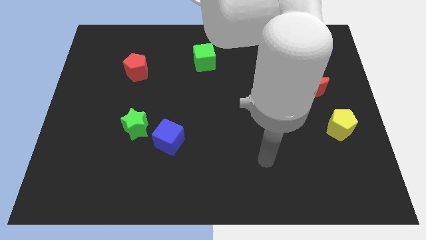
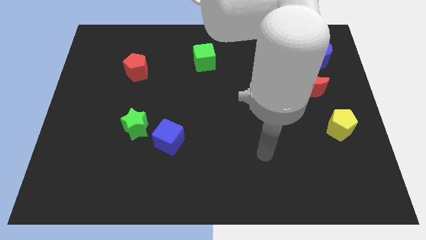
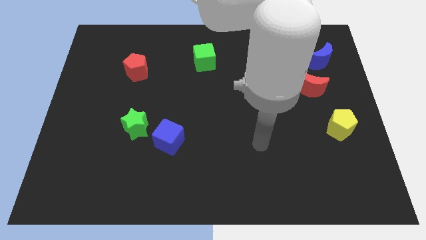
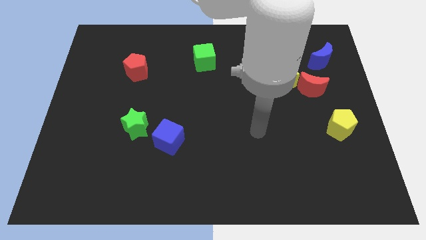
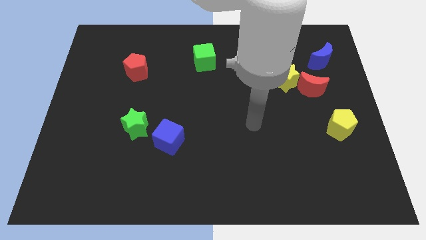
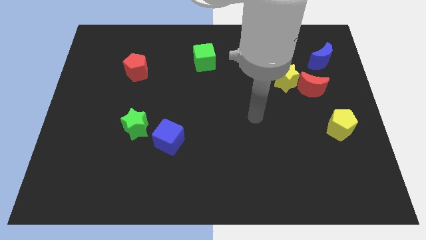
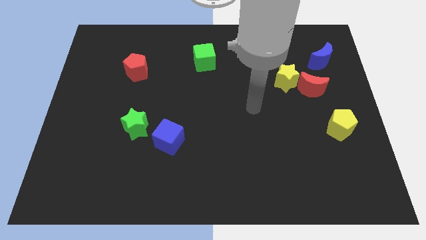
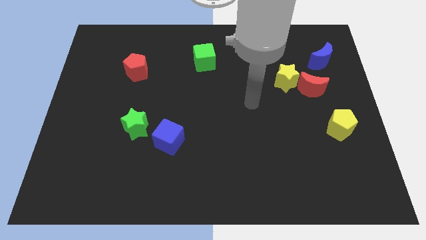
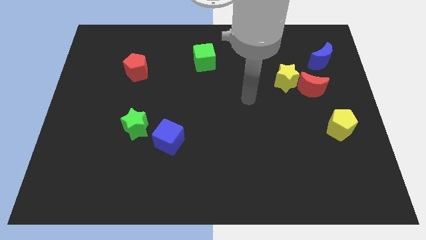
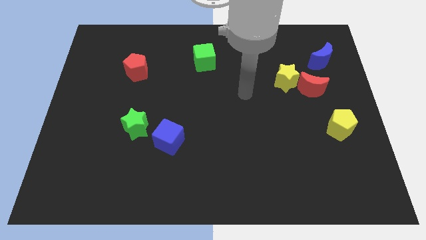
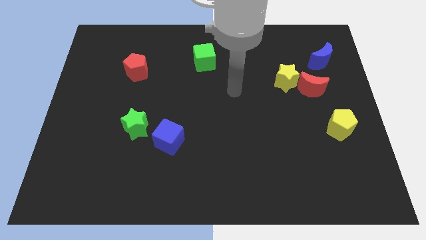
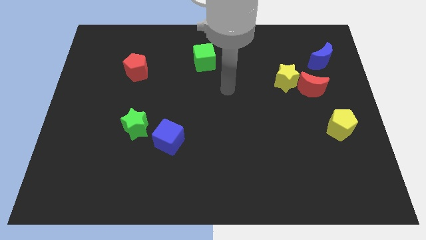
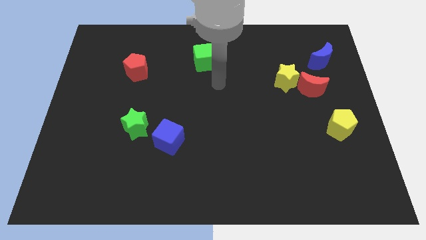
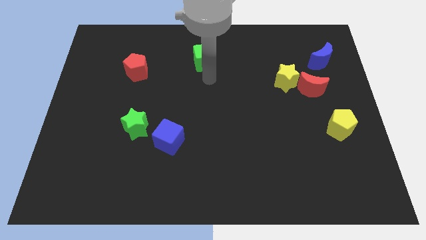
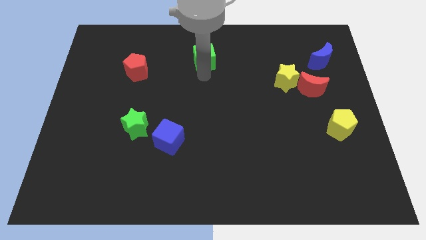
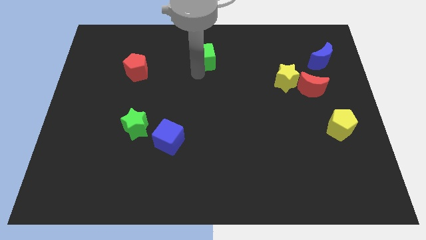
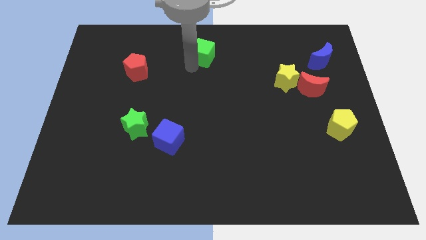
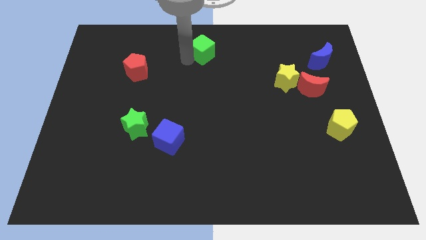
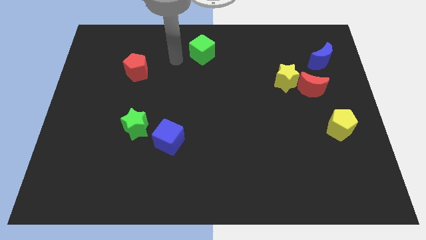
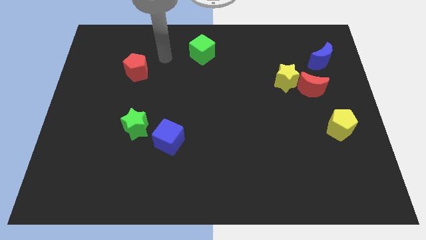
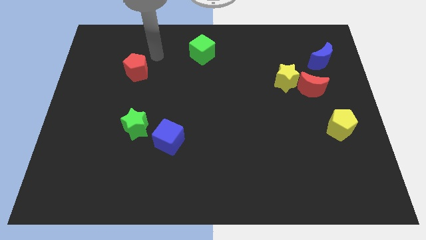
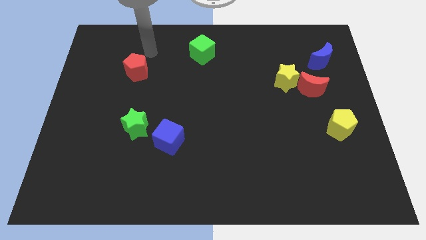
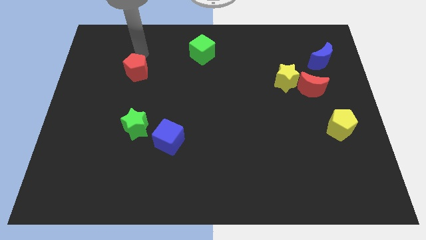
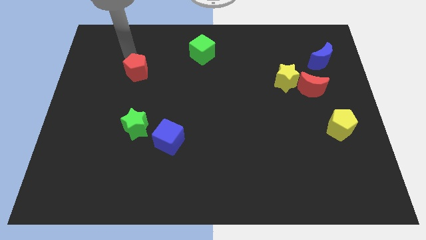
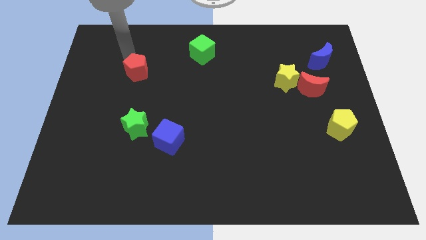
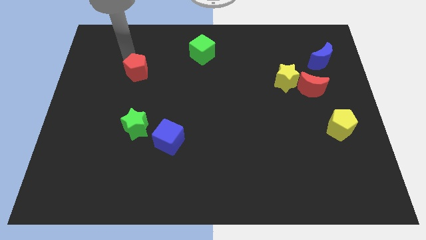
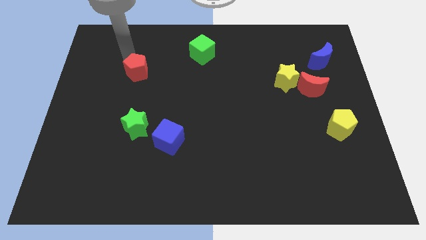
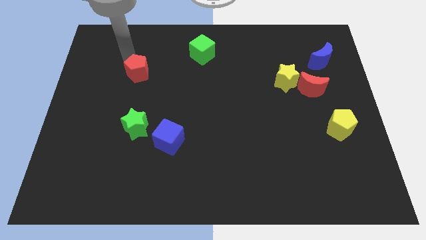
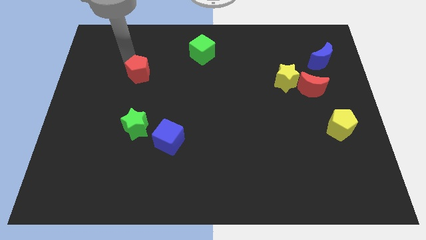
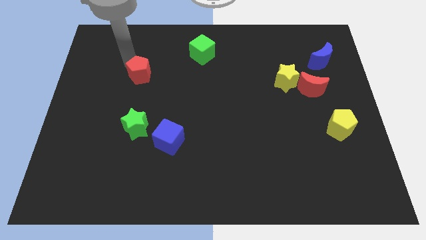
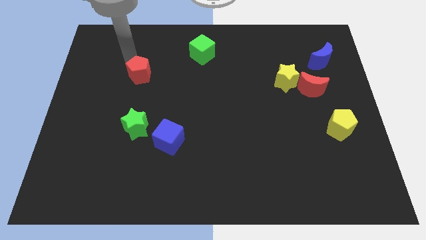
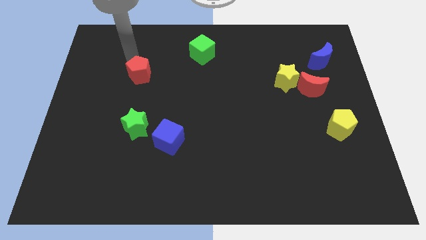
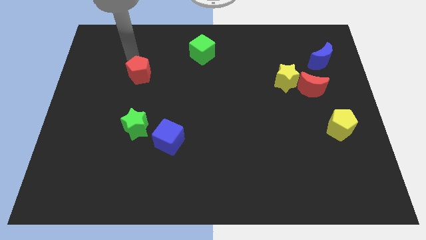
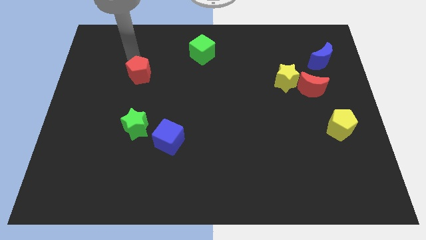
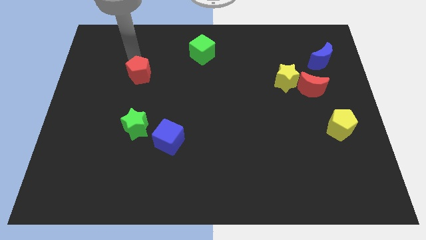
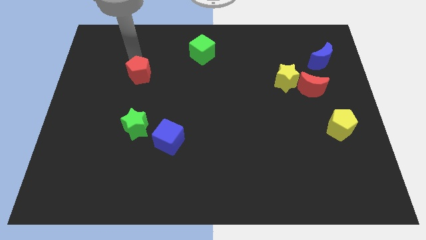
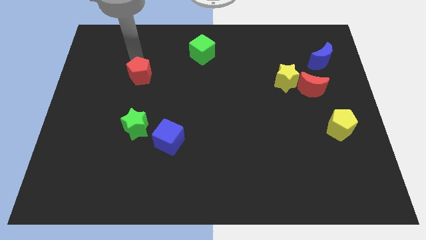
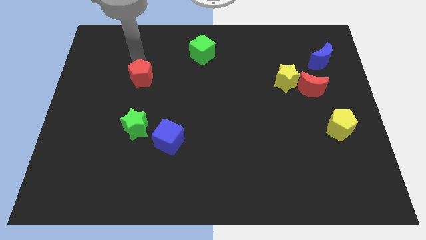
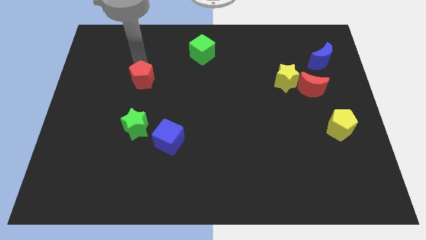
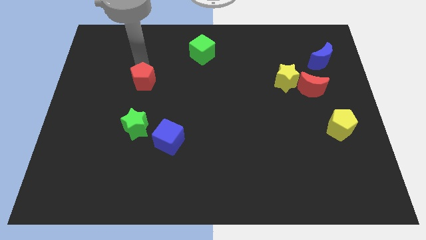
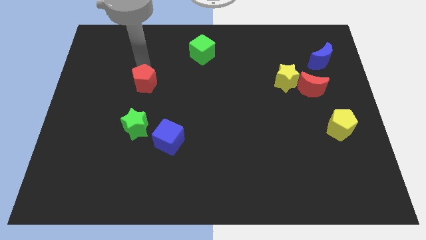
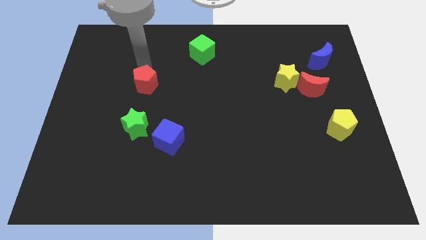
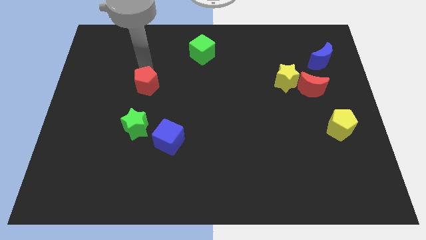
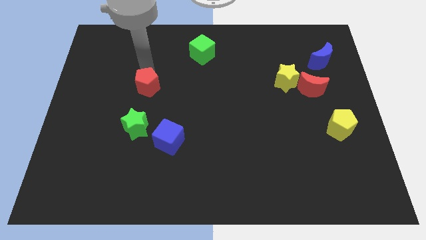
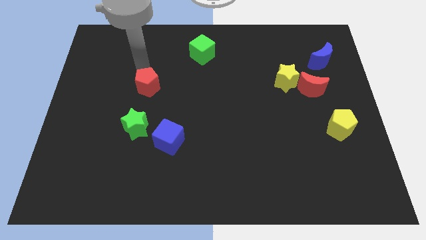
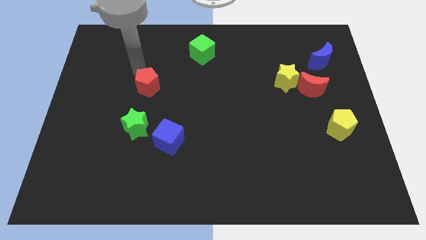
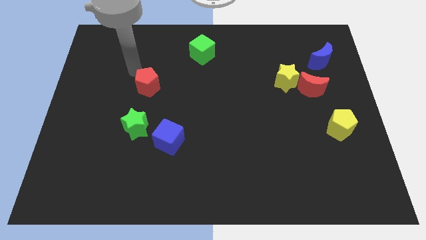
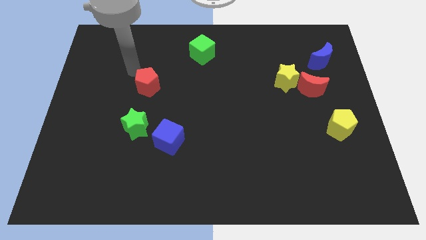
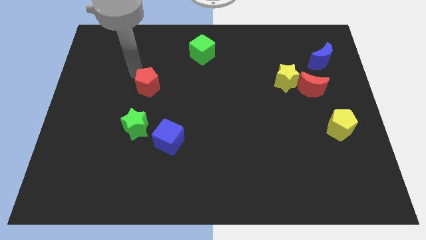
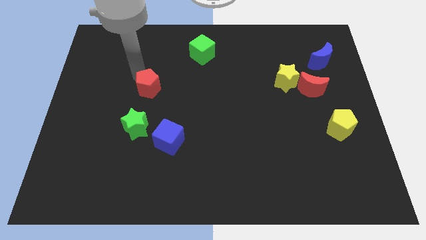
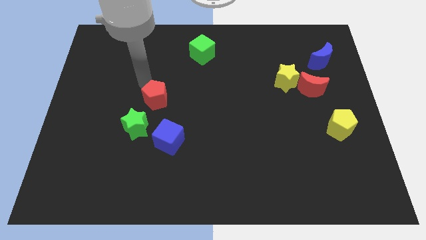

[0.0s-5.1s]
move the red pentagon downwards and to the right diagonally a little bit

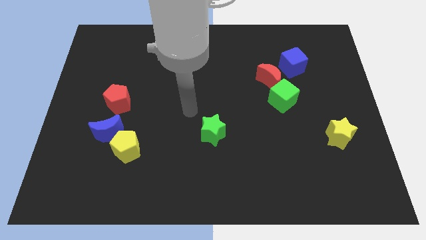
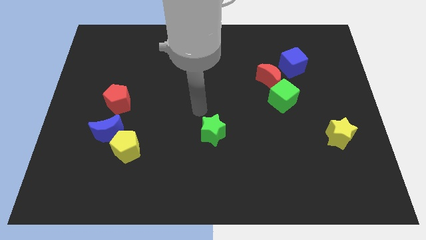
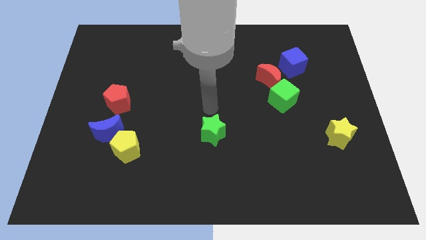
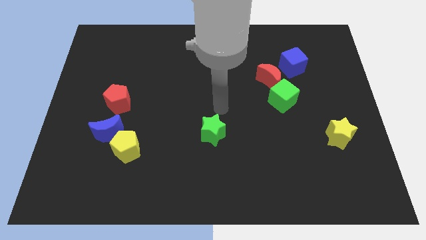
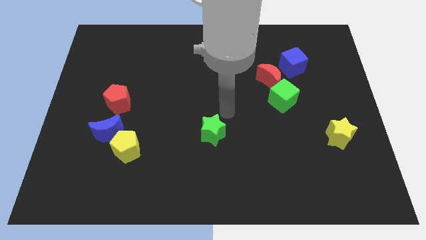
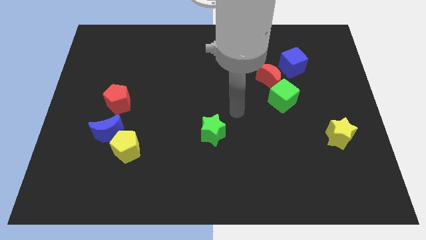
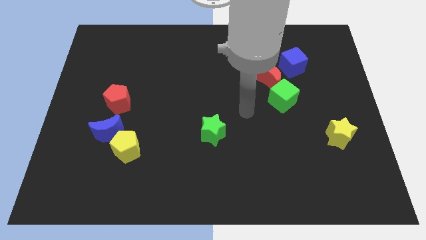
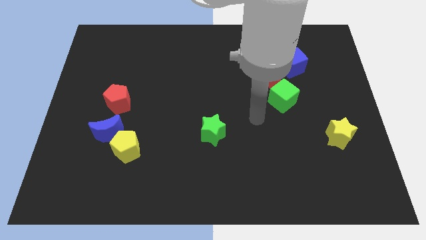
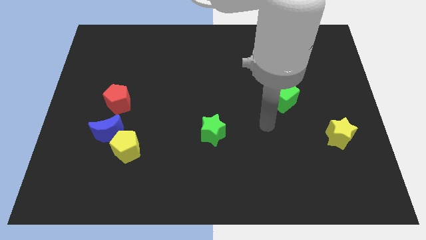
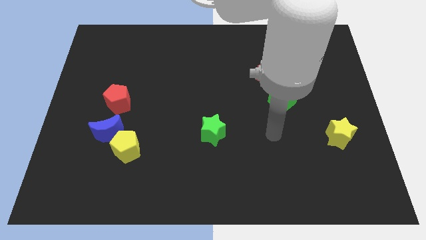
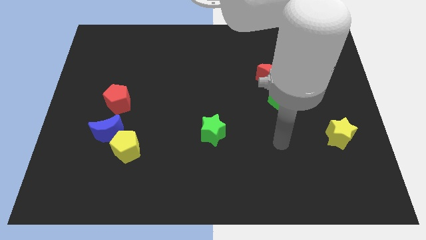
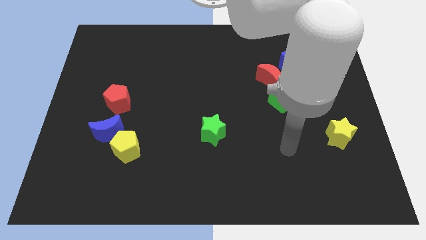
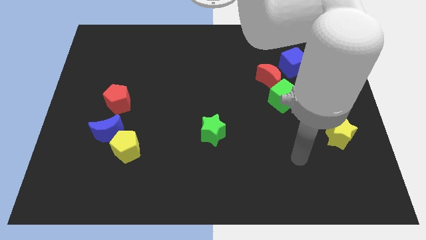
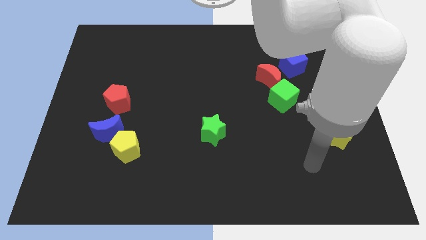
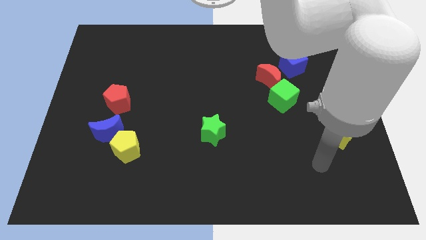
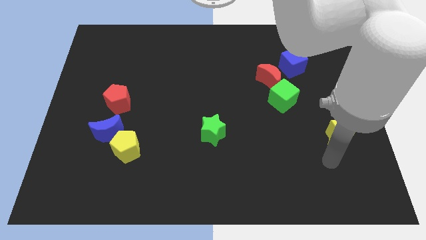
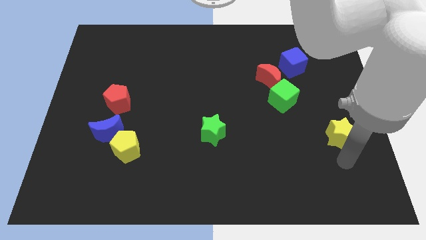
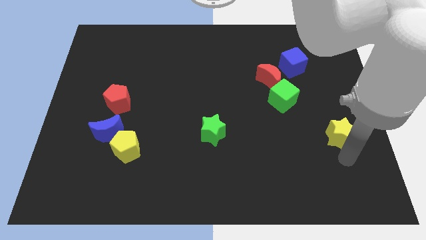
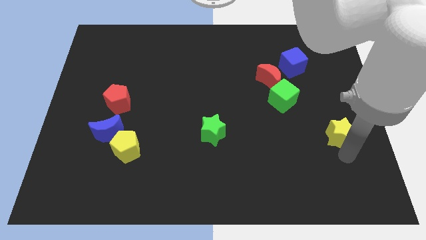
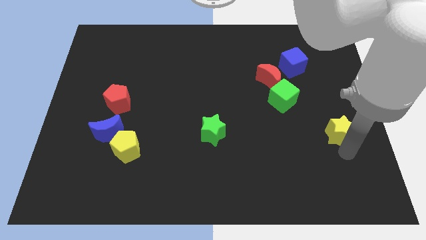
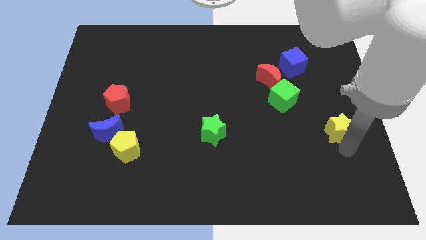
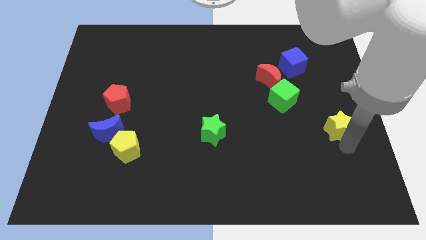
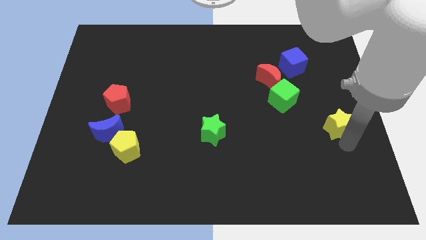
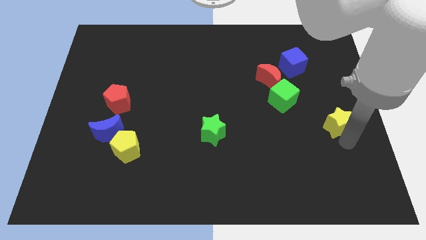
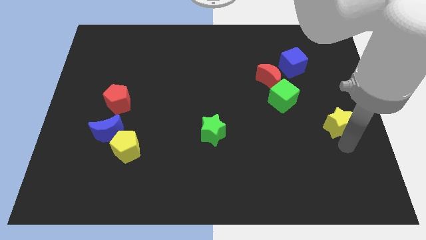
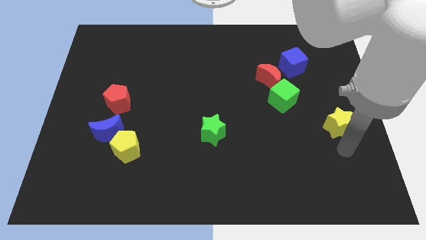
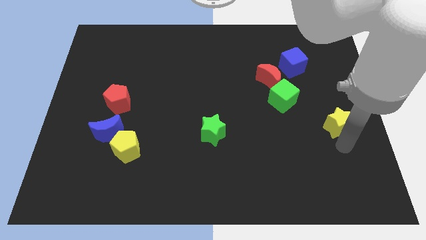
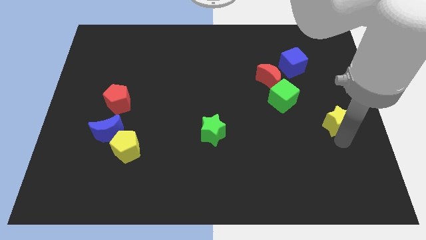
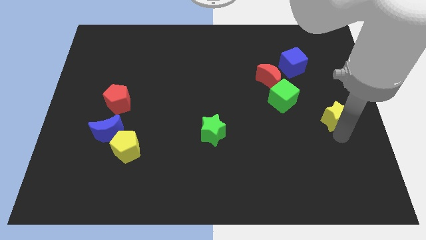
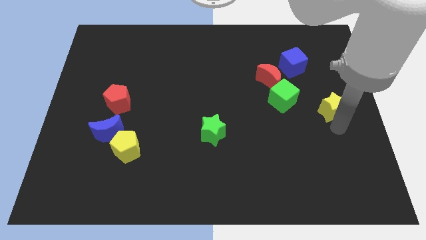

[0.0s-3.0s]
move the yellow star a little upwards
